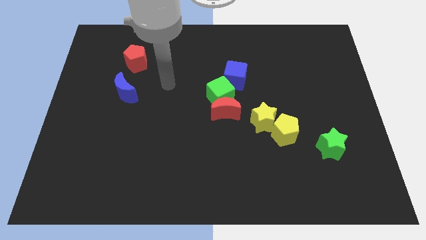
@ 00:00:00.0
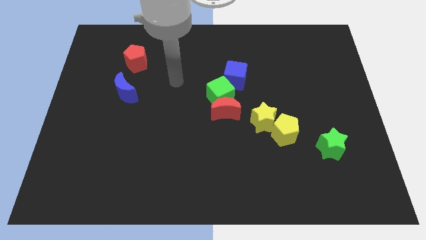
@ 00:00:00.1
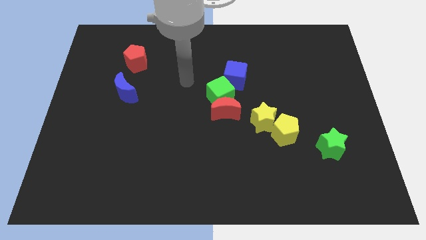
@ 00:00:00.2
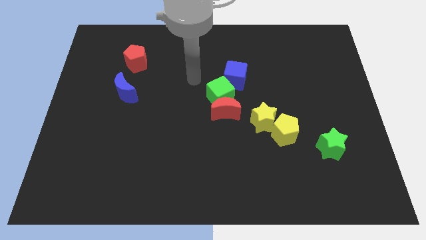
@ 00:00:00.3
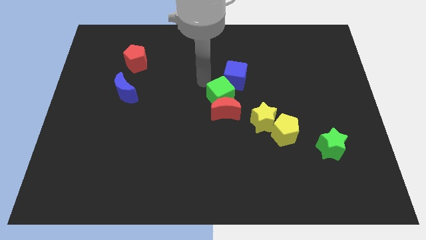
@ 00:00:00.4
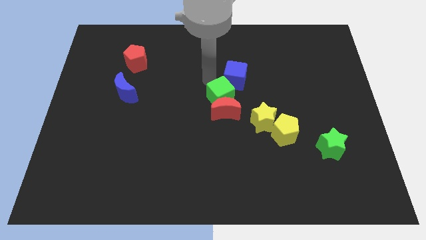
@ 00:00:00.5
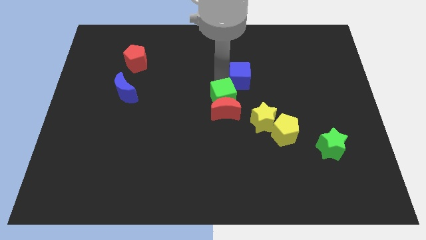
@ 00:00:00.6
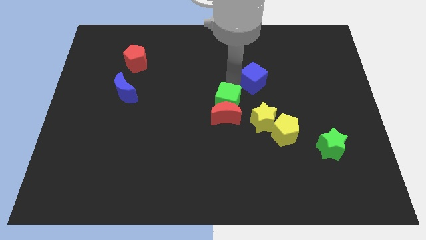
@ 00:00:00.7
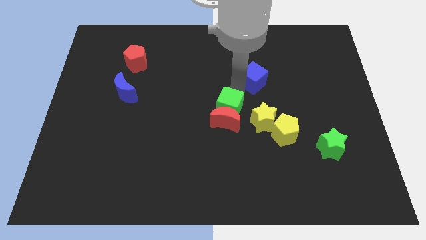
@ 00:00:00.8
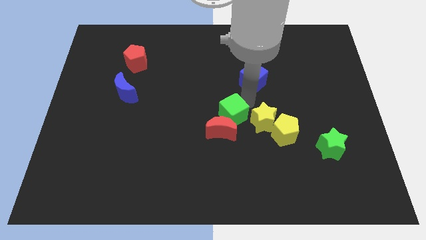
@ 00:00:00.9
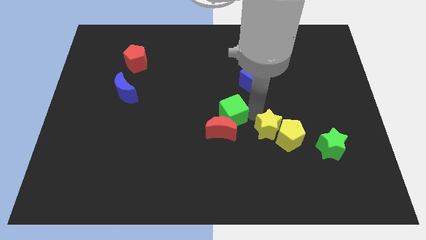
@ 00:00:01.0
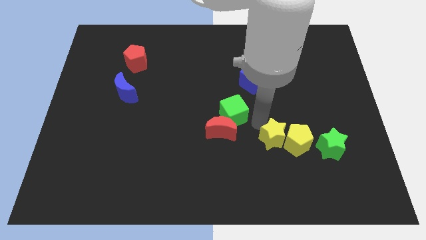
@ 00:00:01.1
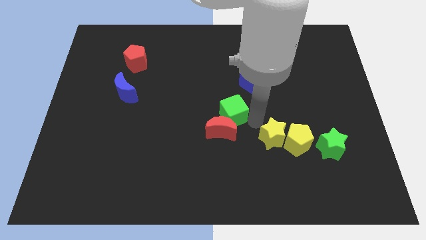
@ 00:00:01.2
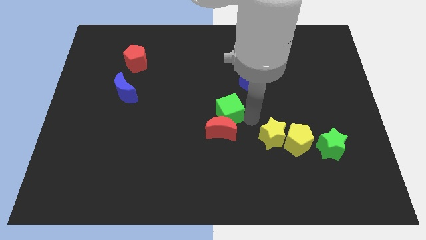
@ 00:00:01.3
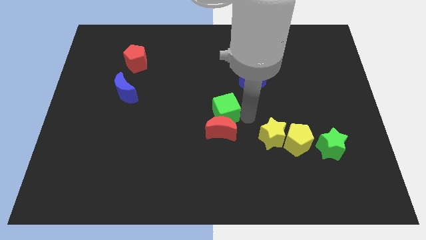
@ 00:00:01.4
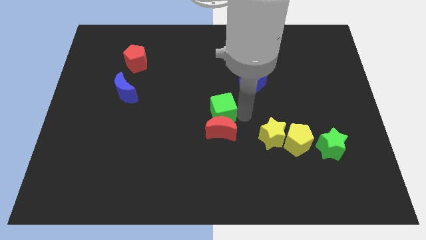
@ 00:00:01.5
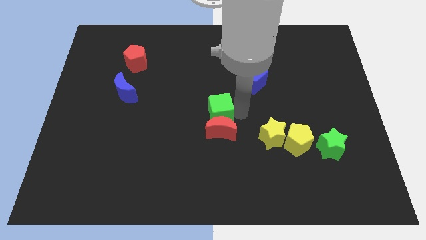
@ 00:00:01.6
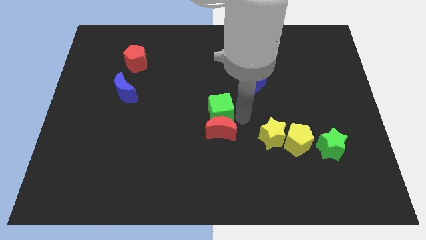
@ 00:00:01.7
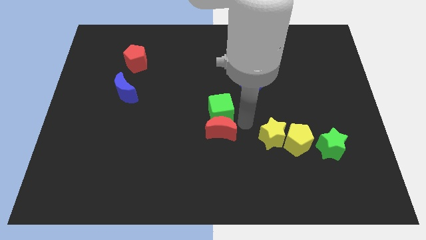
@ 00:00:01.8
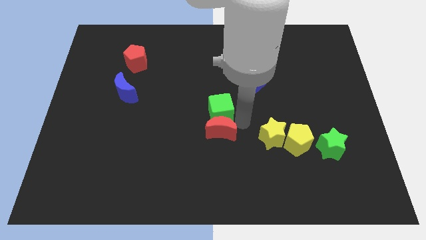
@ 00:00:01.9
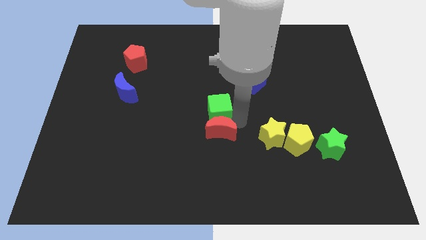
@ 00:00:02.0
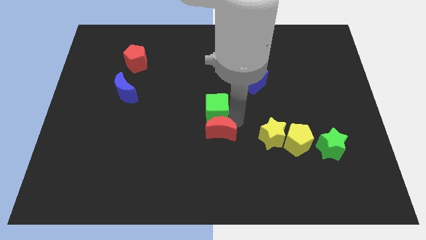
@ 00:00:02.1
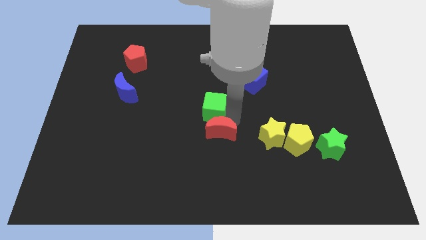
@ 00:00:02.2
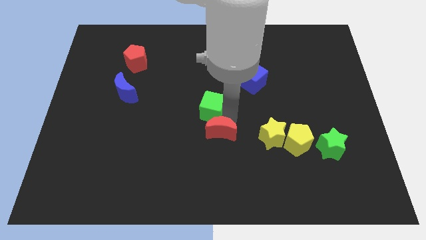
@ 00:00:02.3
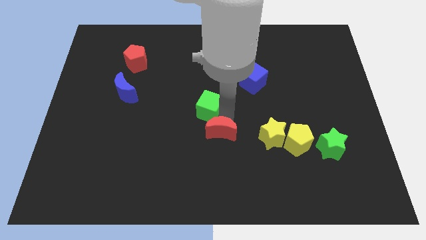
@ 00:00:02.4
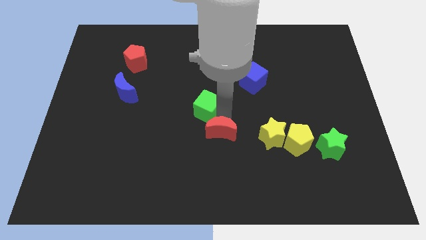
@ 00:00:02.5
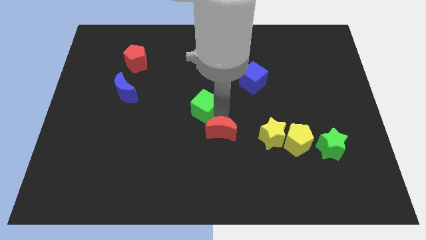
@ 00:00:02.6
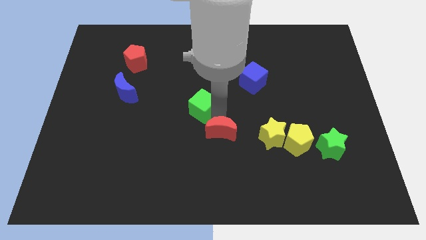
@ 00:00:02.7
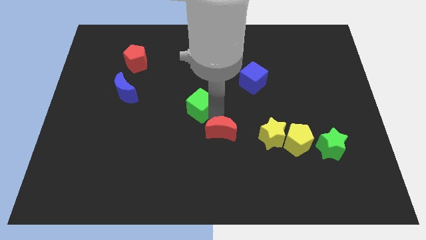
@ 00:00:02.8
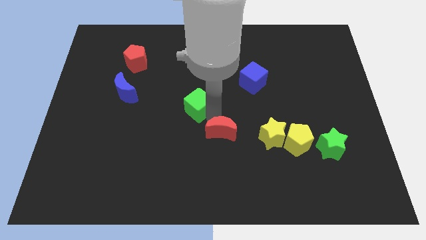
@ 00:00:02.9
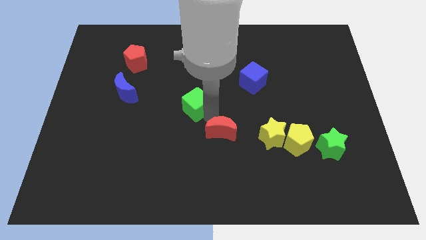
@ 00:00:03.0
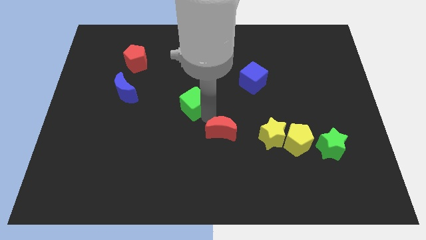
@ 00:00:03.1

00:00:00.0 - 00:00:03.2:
move the green cube away from the red moon and blue cube

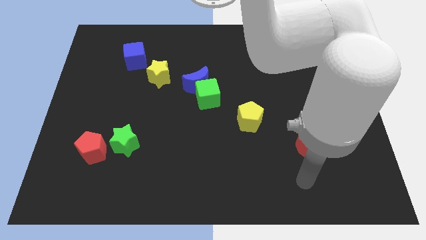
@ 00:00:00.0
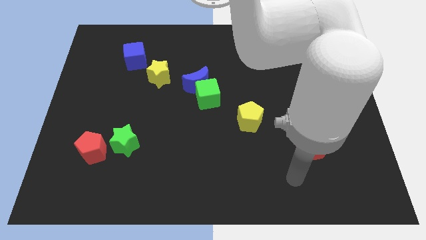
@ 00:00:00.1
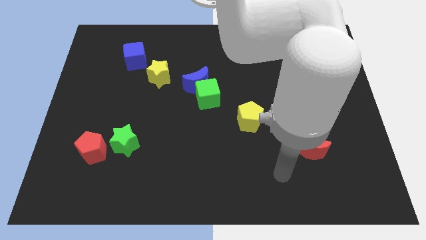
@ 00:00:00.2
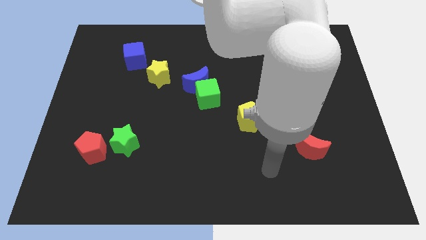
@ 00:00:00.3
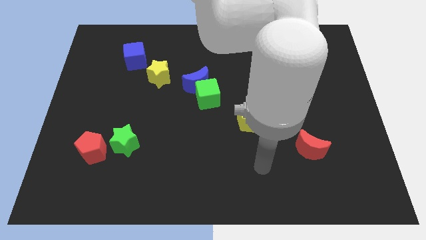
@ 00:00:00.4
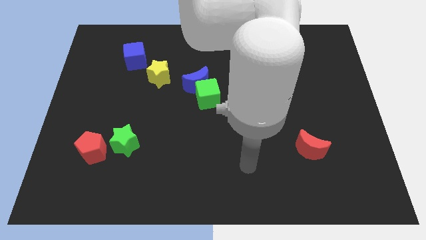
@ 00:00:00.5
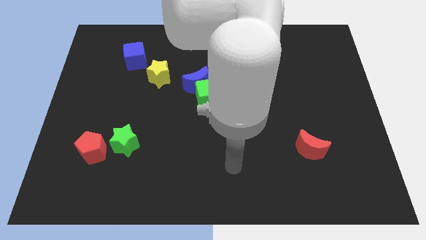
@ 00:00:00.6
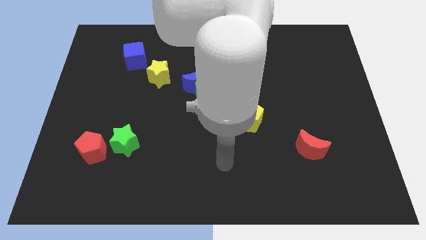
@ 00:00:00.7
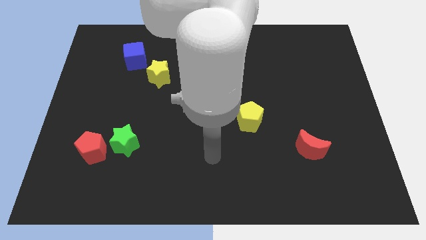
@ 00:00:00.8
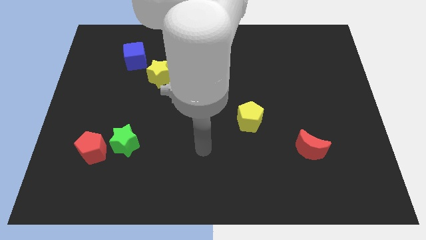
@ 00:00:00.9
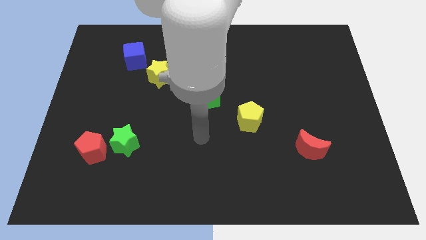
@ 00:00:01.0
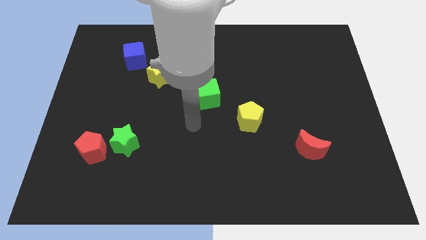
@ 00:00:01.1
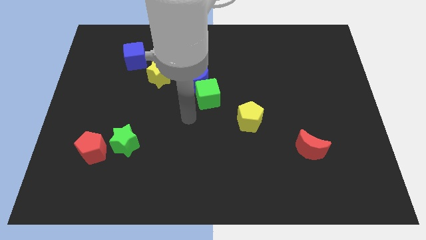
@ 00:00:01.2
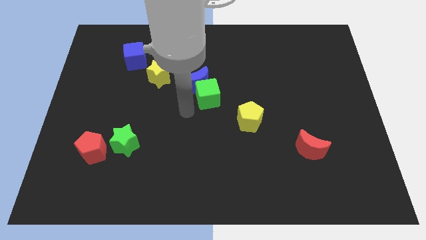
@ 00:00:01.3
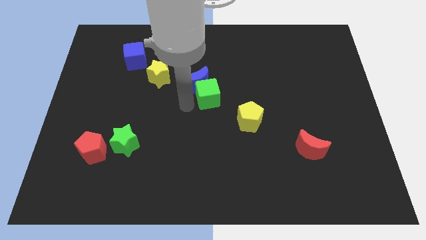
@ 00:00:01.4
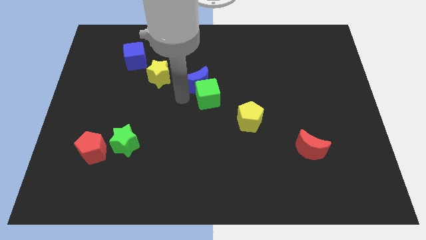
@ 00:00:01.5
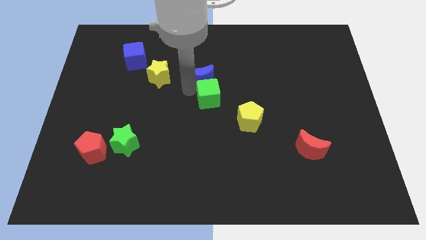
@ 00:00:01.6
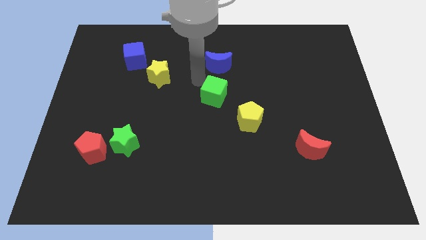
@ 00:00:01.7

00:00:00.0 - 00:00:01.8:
move the green cube away from the blue moon

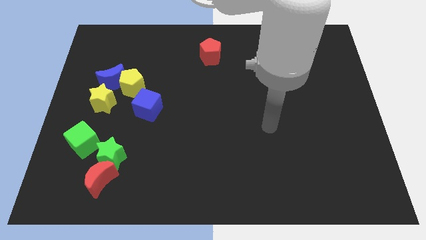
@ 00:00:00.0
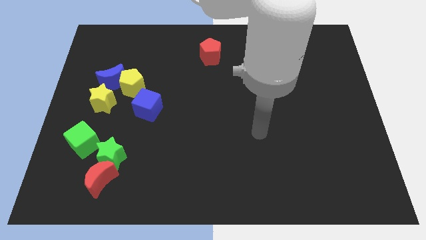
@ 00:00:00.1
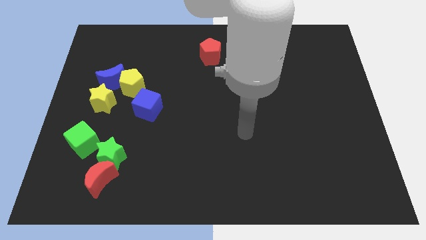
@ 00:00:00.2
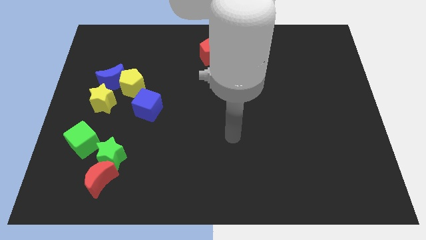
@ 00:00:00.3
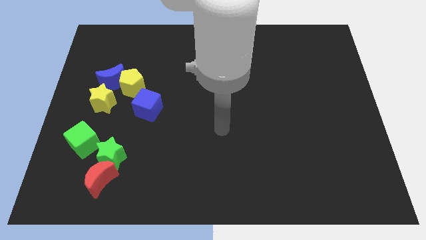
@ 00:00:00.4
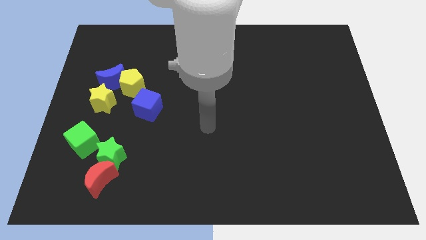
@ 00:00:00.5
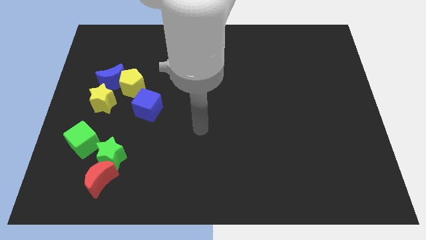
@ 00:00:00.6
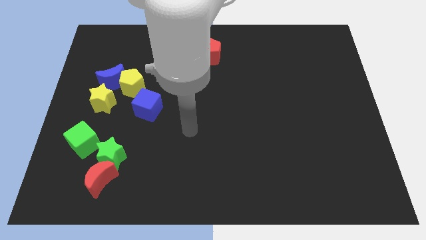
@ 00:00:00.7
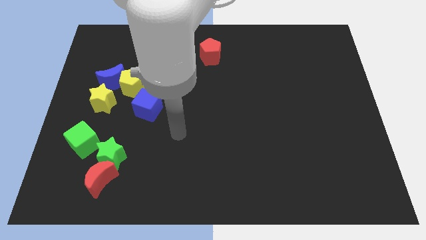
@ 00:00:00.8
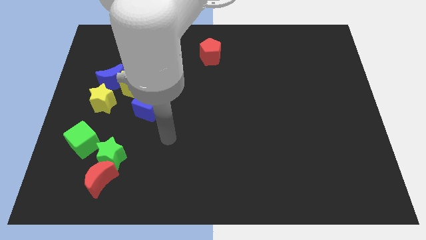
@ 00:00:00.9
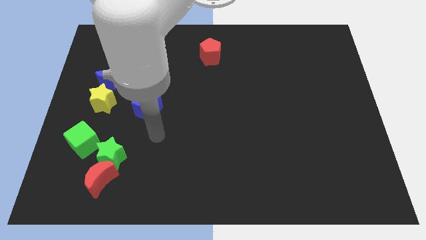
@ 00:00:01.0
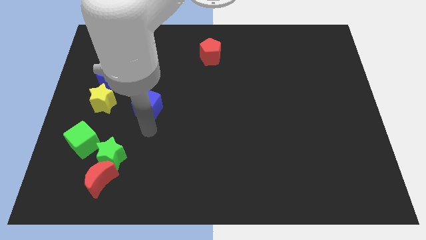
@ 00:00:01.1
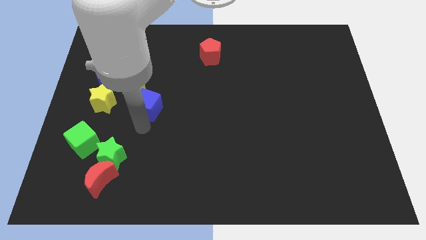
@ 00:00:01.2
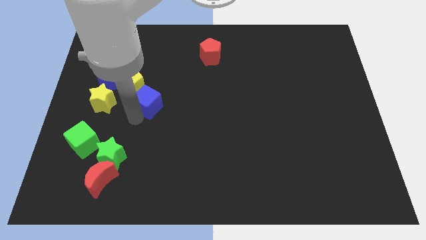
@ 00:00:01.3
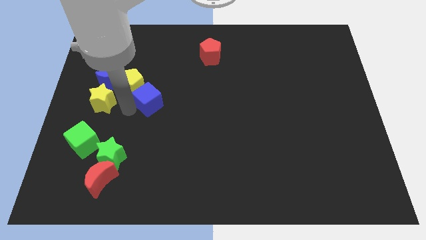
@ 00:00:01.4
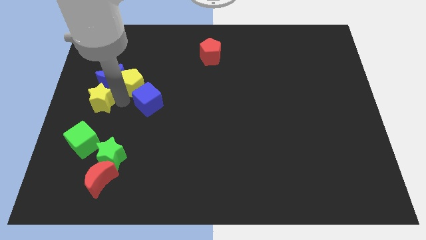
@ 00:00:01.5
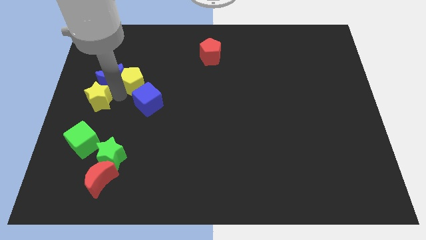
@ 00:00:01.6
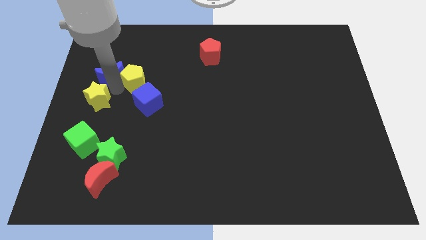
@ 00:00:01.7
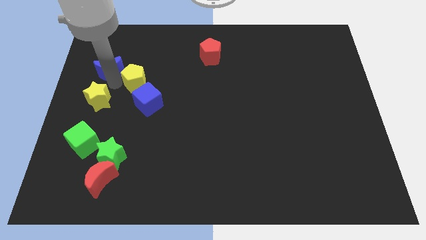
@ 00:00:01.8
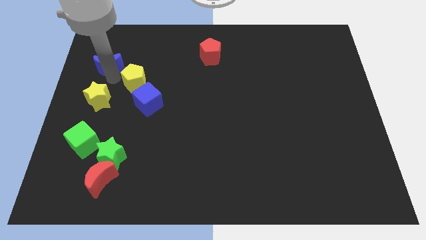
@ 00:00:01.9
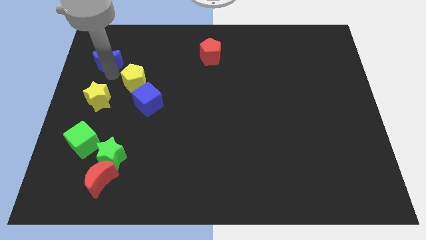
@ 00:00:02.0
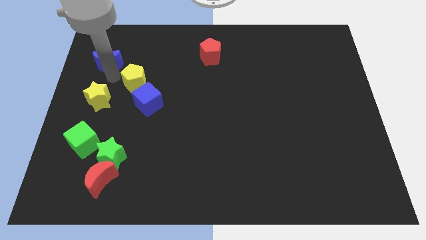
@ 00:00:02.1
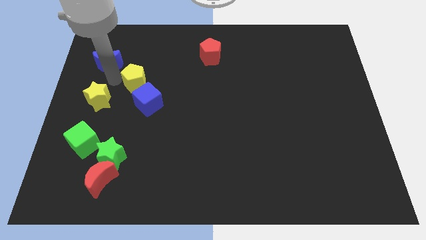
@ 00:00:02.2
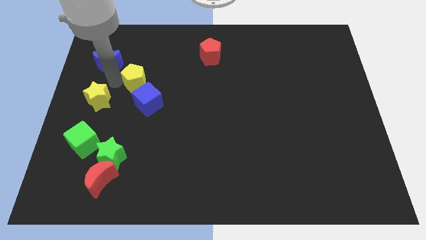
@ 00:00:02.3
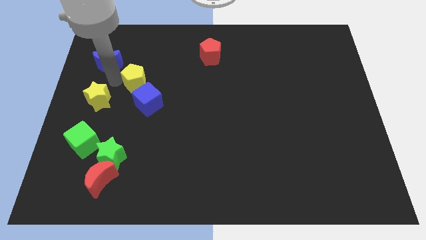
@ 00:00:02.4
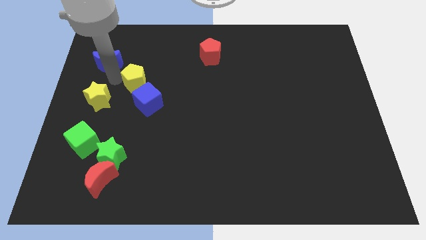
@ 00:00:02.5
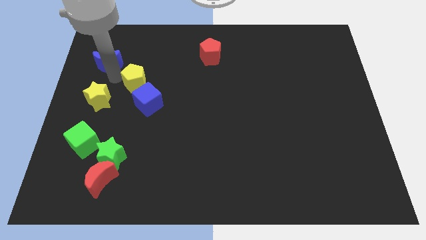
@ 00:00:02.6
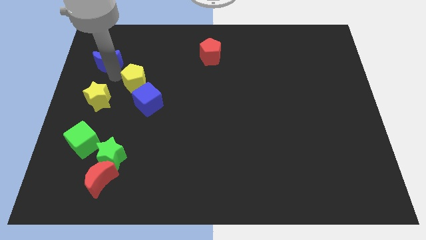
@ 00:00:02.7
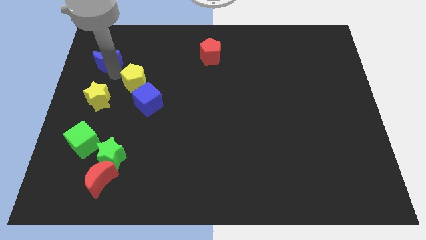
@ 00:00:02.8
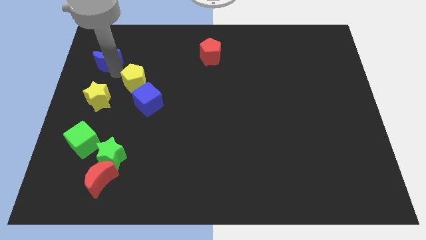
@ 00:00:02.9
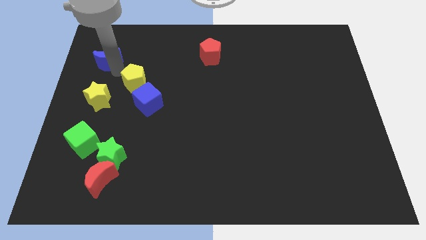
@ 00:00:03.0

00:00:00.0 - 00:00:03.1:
move the blue moon away from the yellow pentagon and yellow star

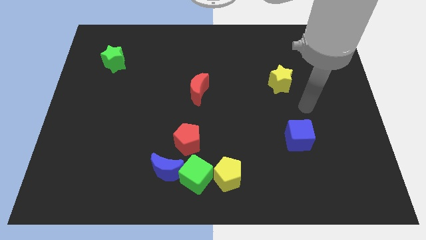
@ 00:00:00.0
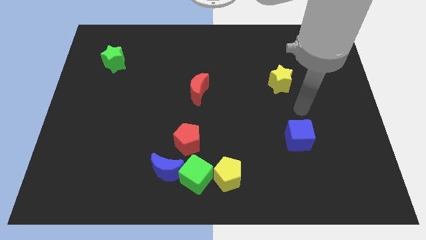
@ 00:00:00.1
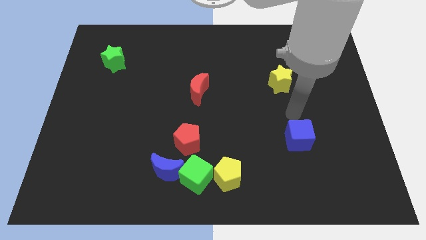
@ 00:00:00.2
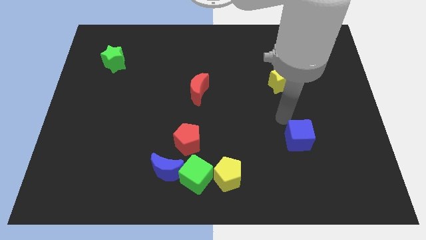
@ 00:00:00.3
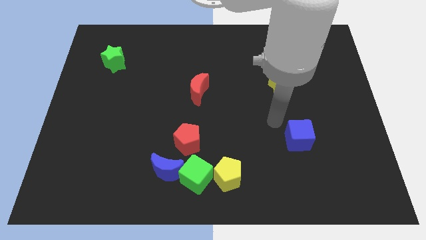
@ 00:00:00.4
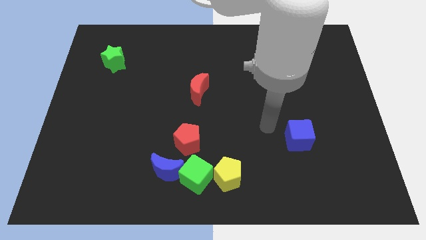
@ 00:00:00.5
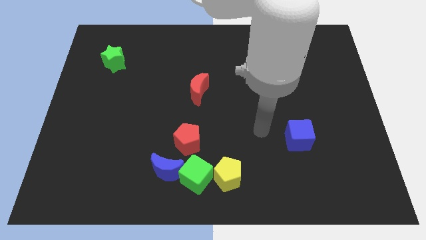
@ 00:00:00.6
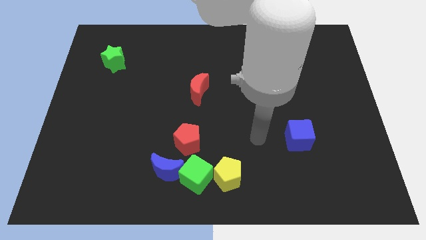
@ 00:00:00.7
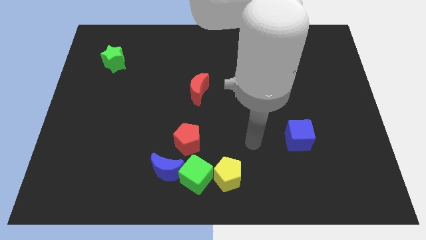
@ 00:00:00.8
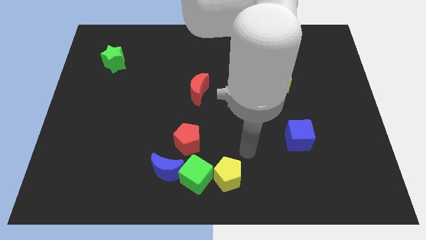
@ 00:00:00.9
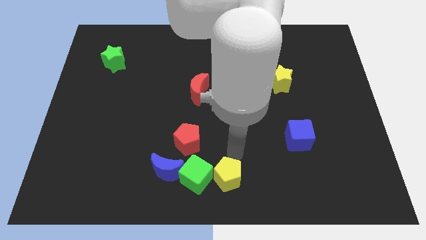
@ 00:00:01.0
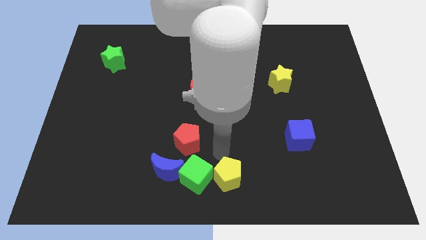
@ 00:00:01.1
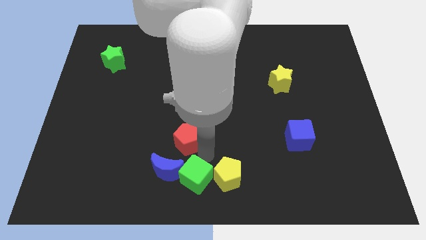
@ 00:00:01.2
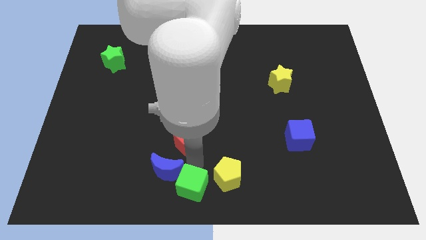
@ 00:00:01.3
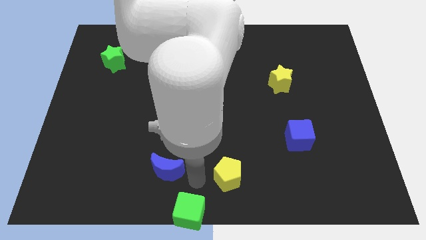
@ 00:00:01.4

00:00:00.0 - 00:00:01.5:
move the yellow pentagon away from the green cube
